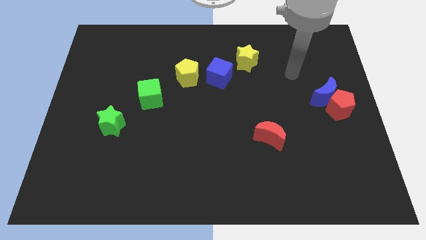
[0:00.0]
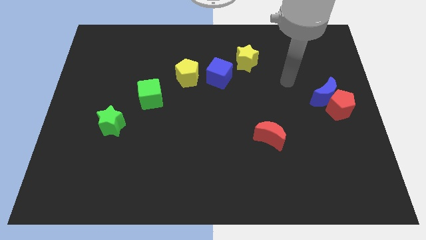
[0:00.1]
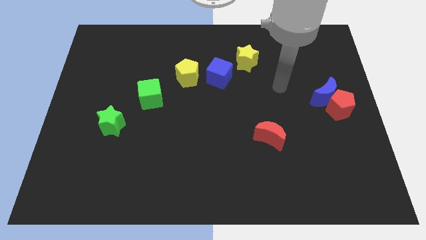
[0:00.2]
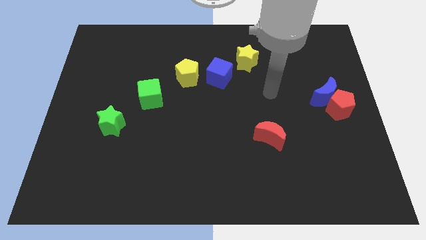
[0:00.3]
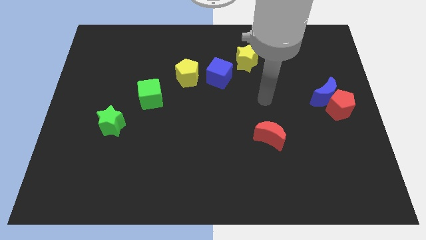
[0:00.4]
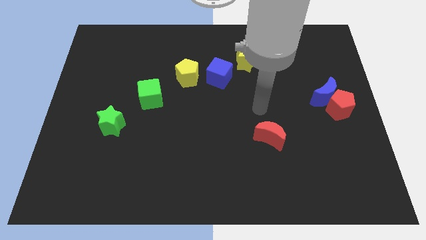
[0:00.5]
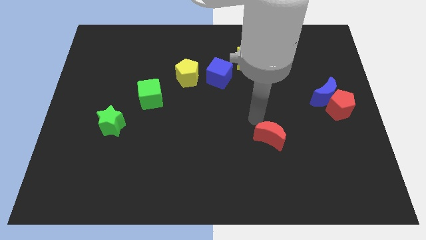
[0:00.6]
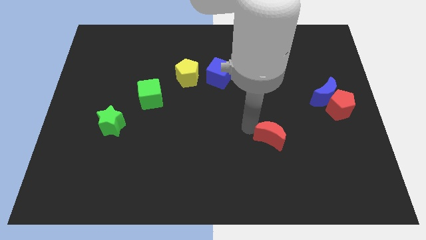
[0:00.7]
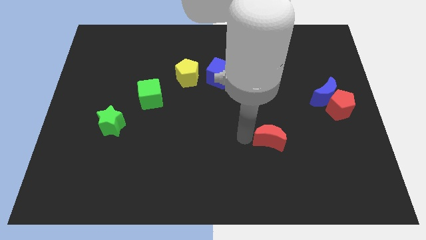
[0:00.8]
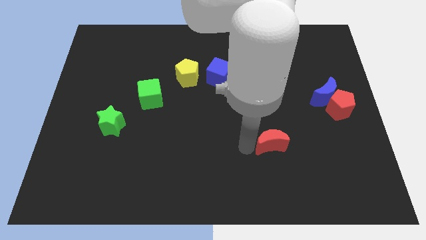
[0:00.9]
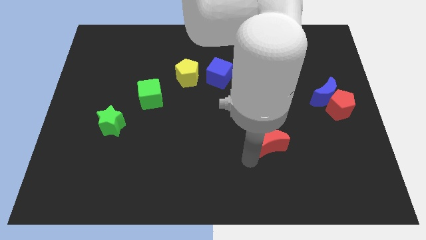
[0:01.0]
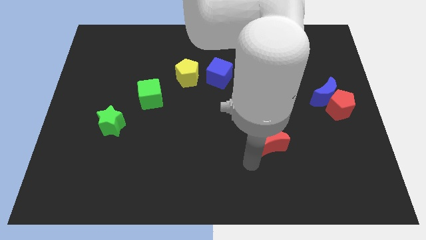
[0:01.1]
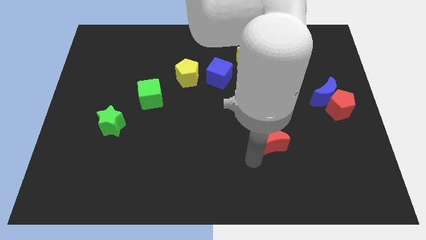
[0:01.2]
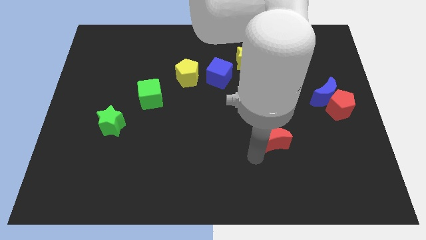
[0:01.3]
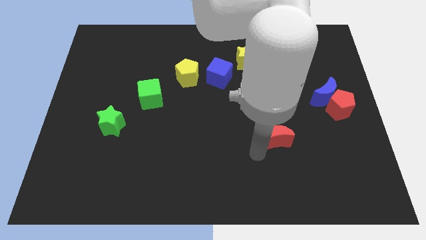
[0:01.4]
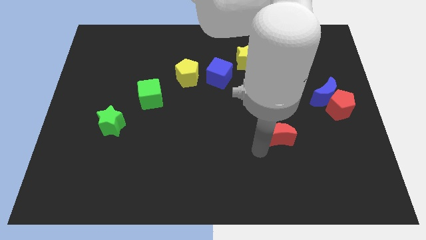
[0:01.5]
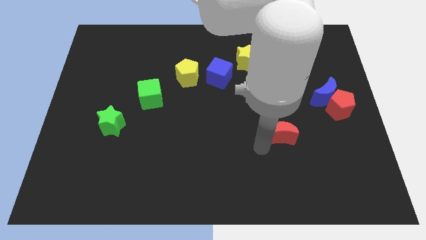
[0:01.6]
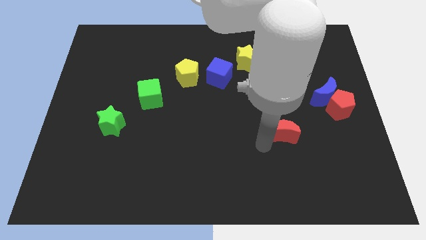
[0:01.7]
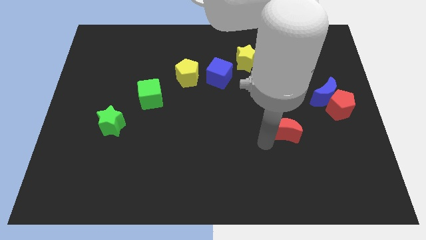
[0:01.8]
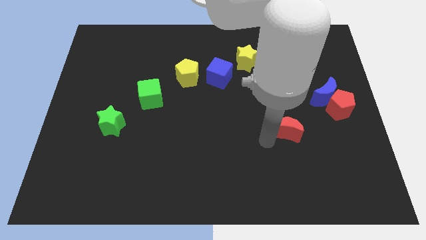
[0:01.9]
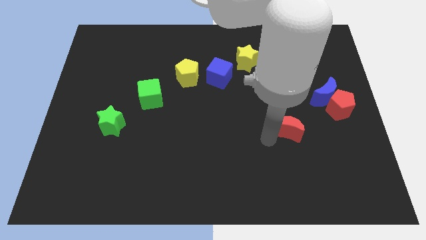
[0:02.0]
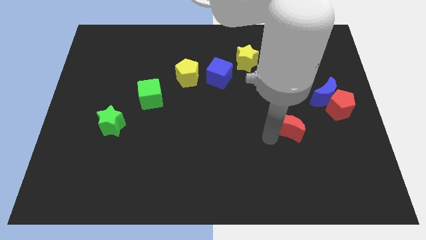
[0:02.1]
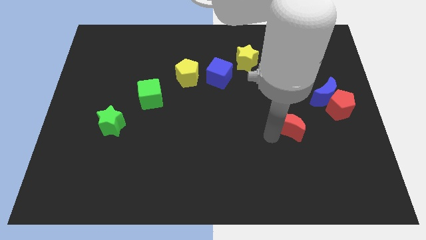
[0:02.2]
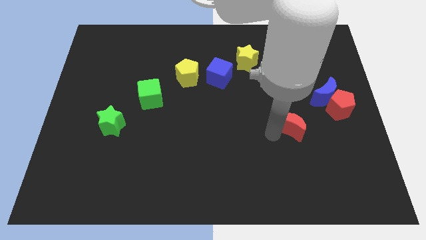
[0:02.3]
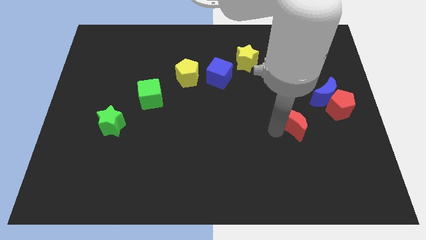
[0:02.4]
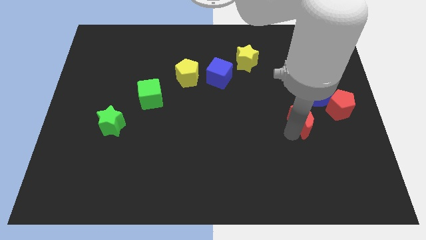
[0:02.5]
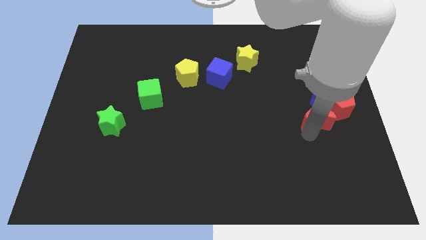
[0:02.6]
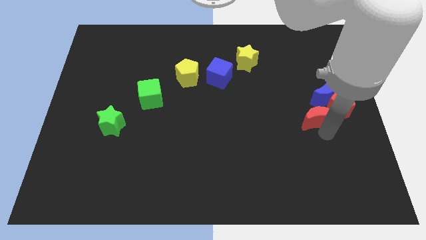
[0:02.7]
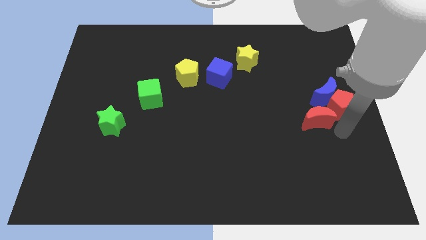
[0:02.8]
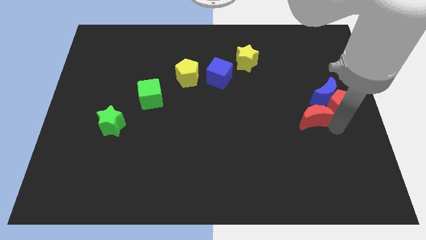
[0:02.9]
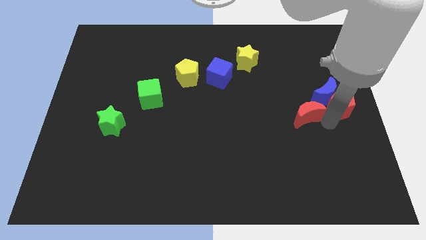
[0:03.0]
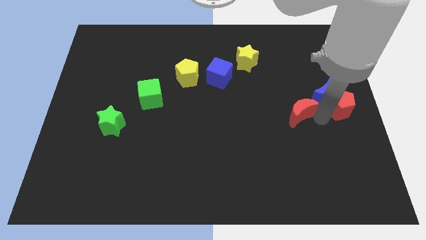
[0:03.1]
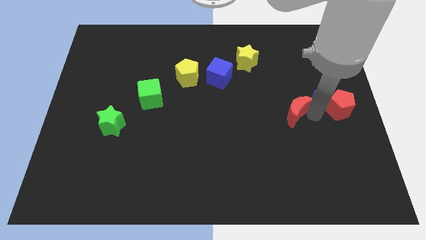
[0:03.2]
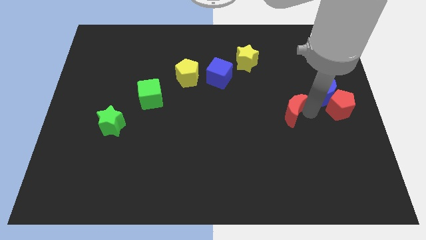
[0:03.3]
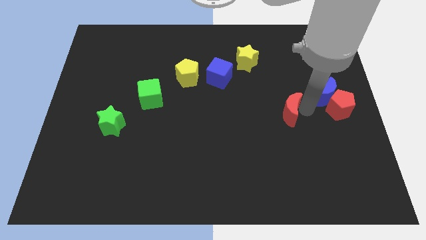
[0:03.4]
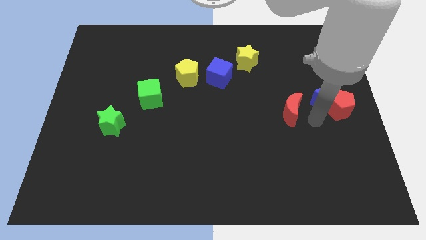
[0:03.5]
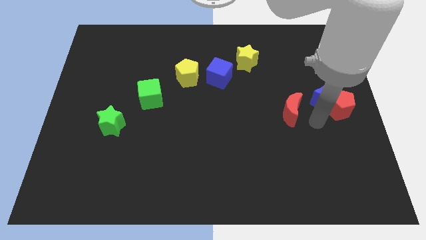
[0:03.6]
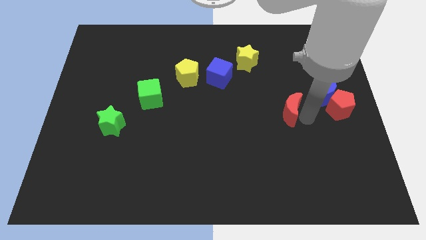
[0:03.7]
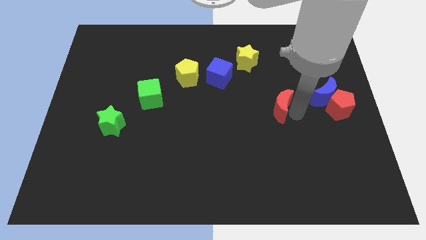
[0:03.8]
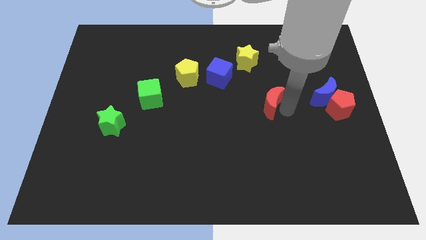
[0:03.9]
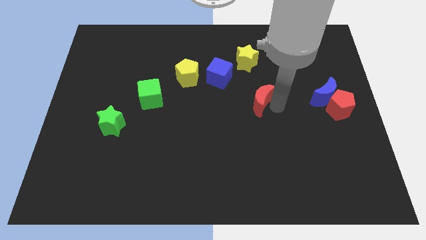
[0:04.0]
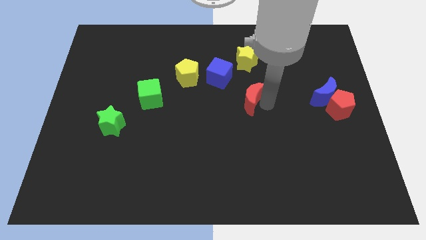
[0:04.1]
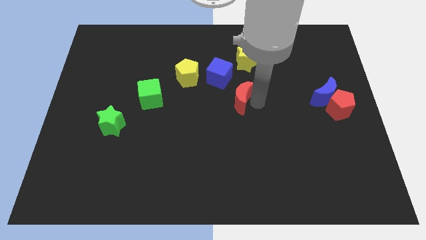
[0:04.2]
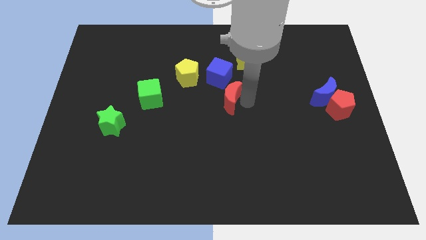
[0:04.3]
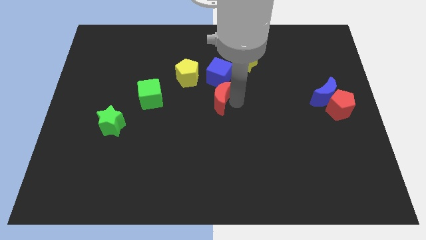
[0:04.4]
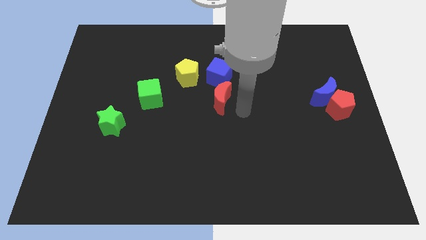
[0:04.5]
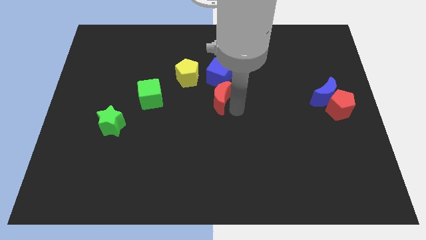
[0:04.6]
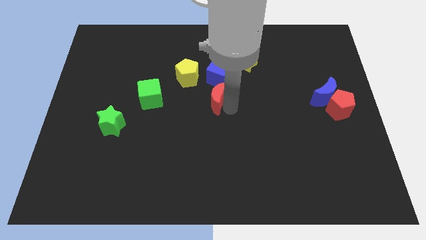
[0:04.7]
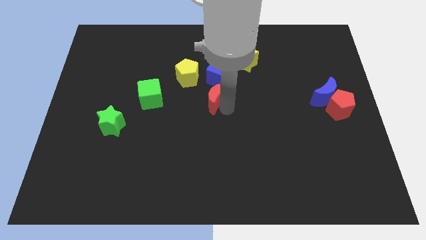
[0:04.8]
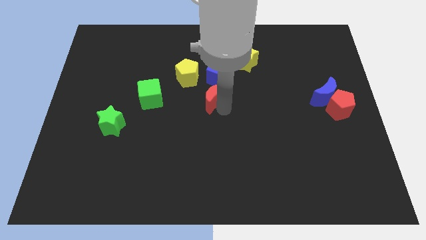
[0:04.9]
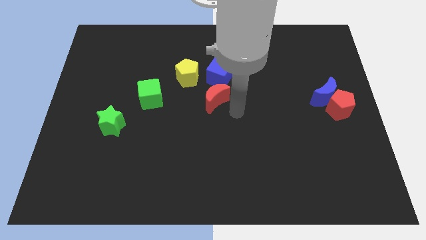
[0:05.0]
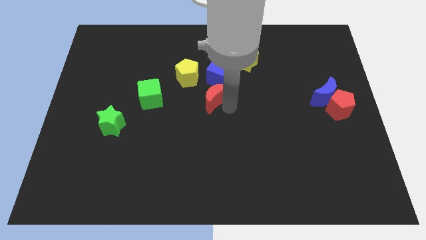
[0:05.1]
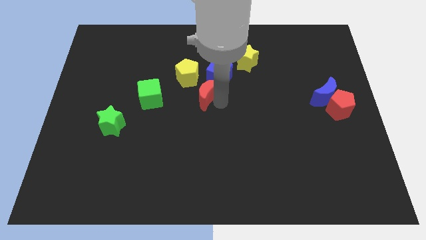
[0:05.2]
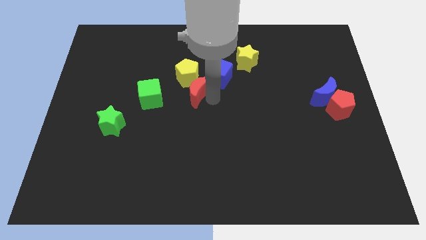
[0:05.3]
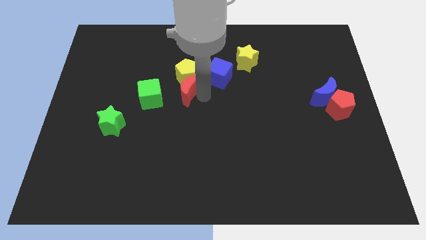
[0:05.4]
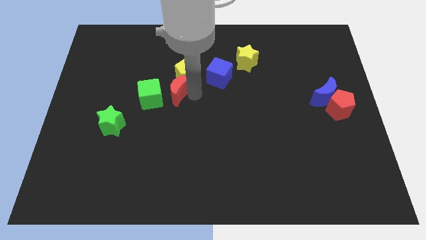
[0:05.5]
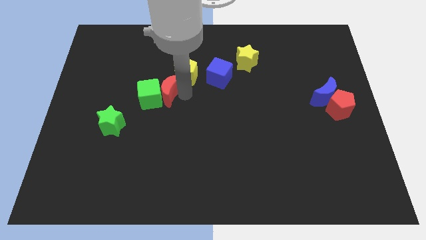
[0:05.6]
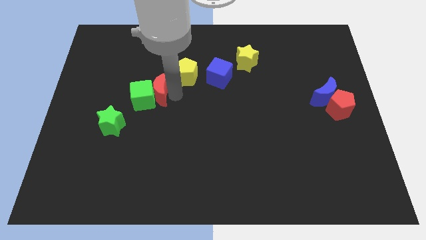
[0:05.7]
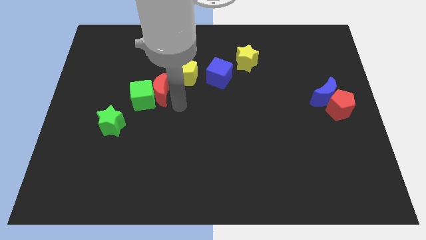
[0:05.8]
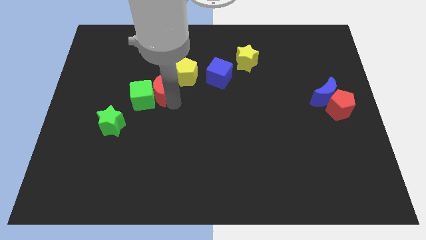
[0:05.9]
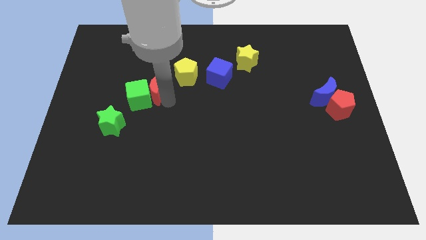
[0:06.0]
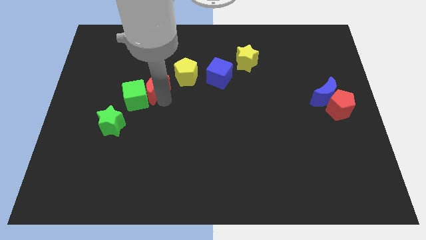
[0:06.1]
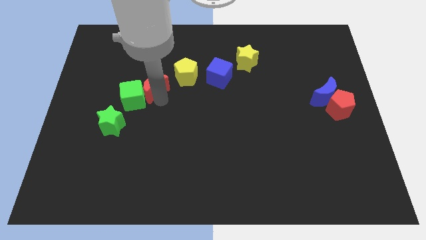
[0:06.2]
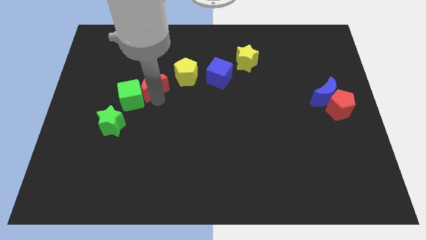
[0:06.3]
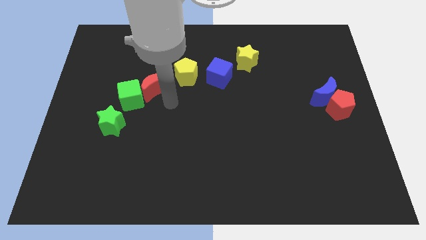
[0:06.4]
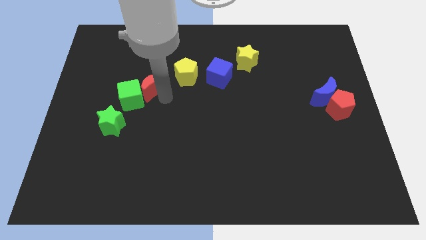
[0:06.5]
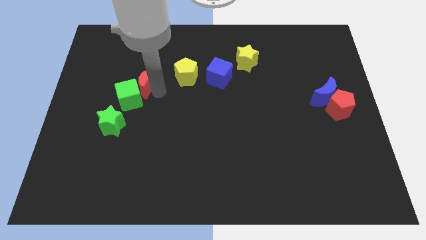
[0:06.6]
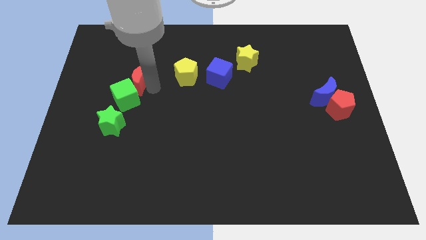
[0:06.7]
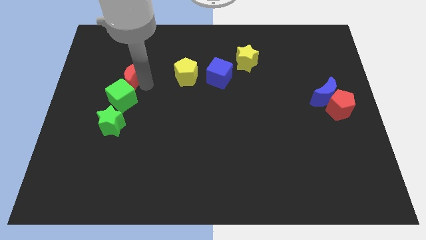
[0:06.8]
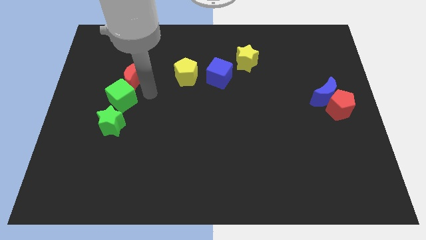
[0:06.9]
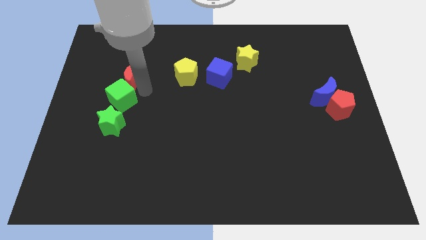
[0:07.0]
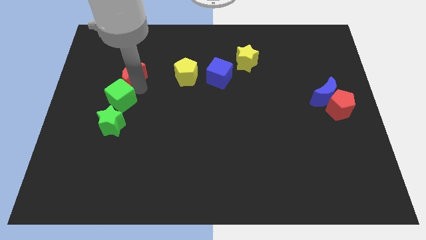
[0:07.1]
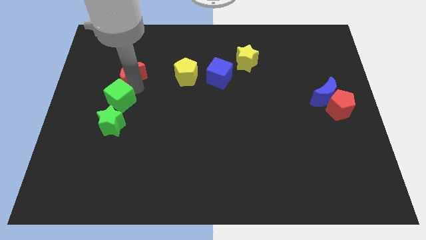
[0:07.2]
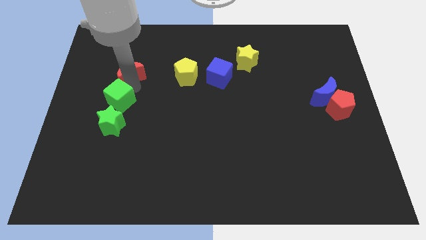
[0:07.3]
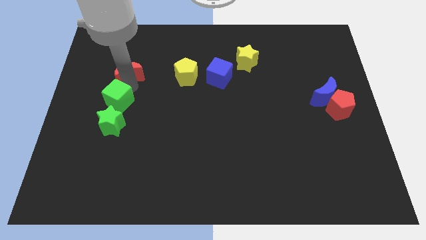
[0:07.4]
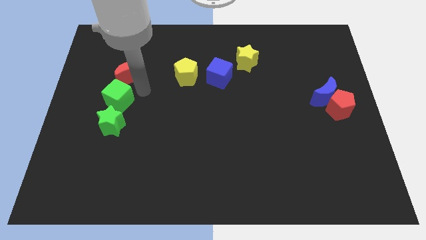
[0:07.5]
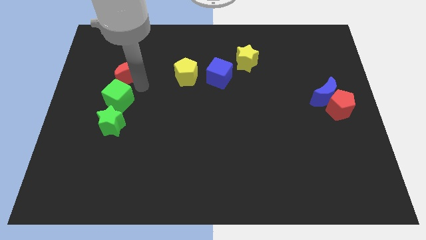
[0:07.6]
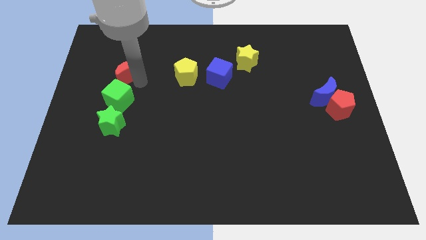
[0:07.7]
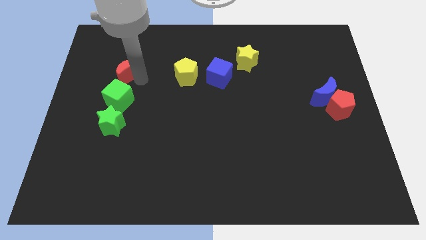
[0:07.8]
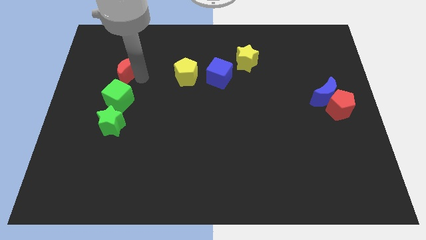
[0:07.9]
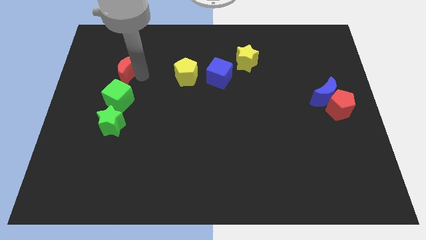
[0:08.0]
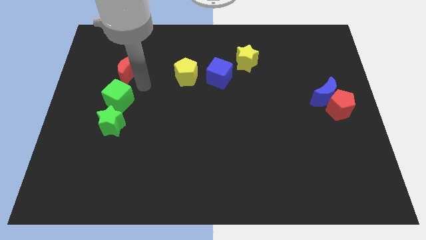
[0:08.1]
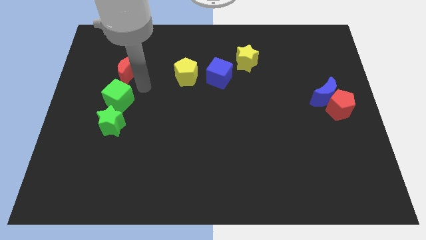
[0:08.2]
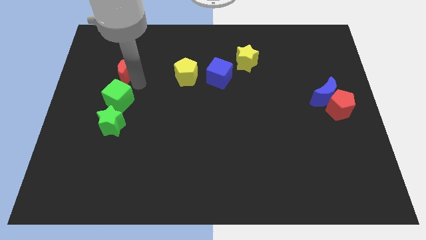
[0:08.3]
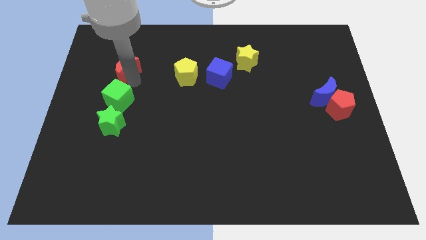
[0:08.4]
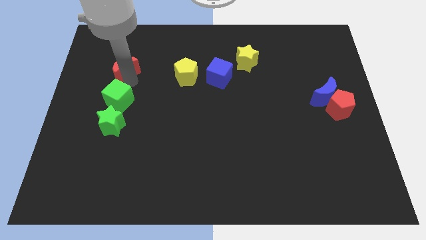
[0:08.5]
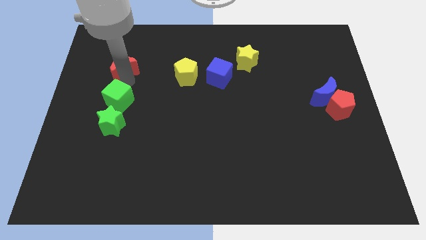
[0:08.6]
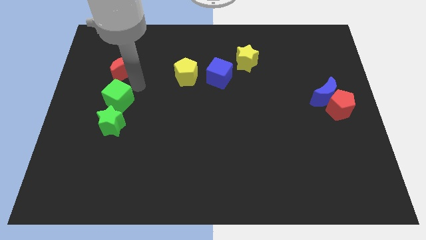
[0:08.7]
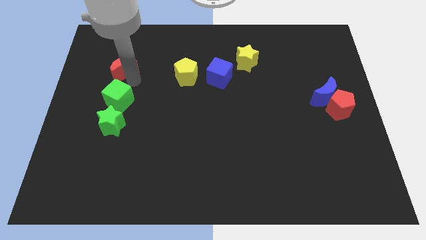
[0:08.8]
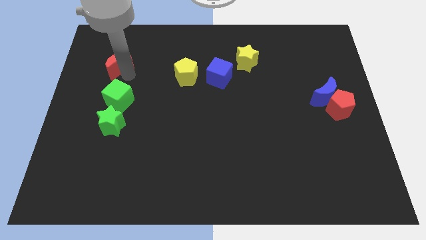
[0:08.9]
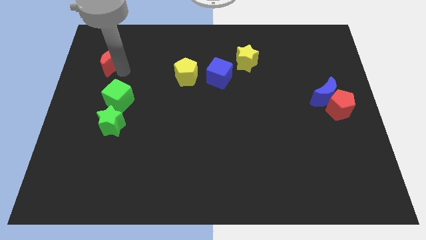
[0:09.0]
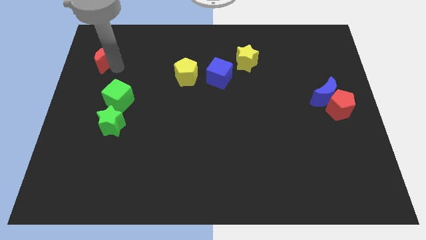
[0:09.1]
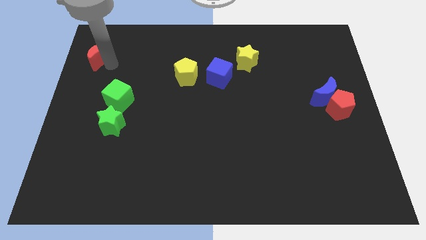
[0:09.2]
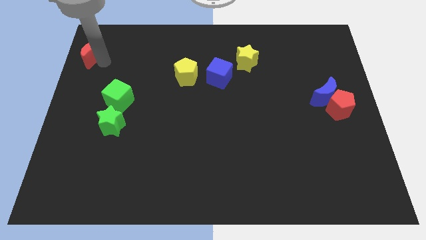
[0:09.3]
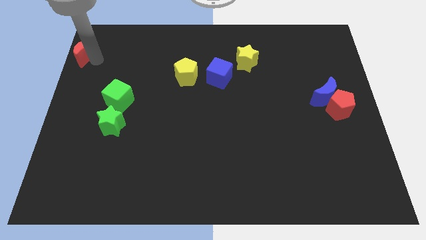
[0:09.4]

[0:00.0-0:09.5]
push the red moon to the top left of the board
